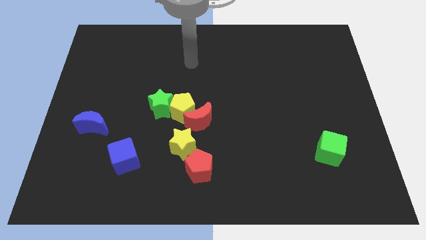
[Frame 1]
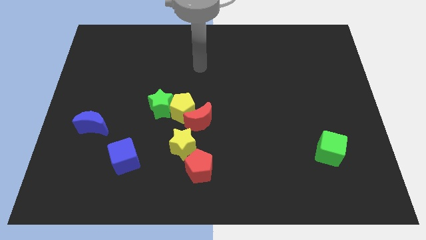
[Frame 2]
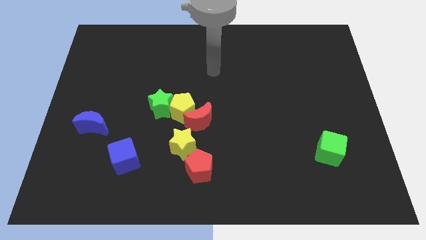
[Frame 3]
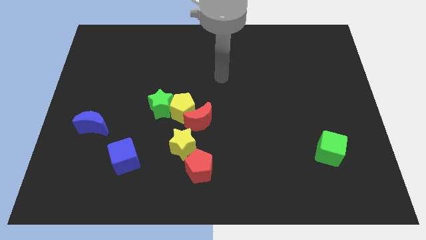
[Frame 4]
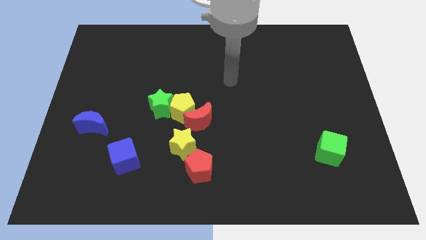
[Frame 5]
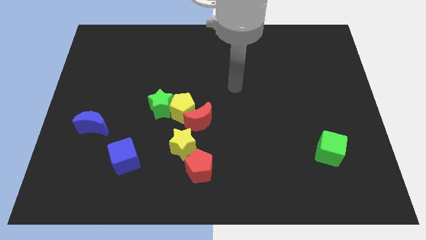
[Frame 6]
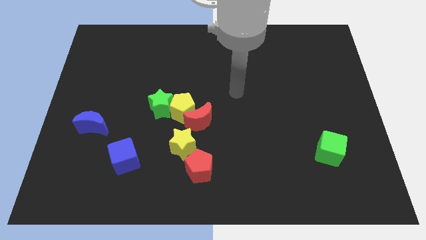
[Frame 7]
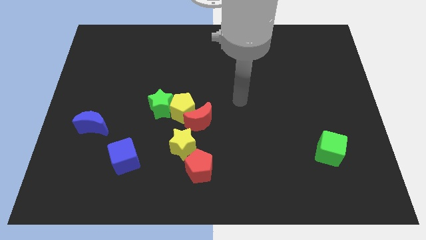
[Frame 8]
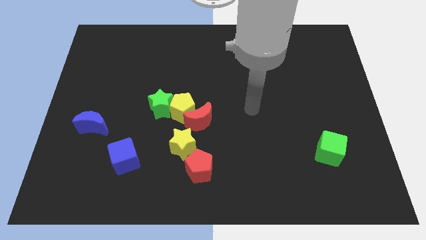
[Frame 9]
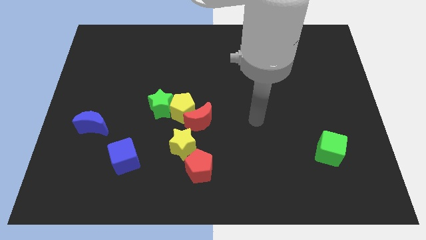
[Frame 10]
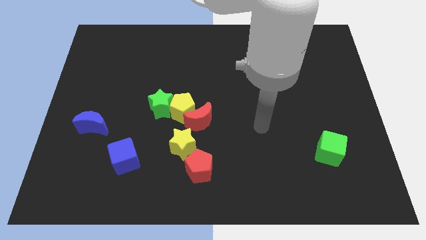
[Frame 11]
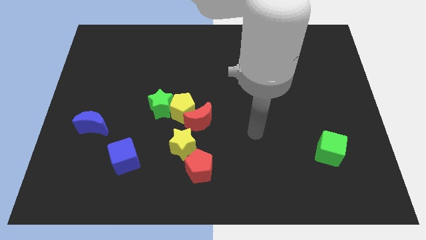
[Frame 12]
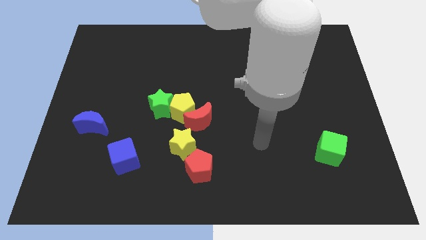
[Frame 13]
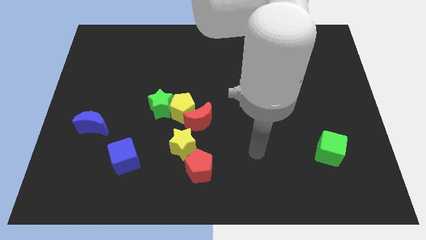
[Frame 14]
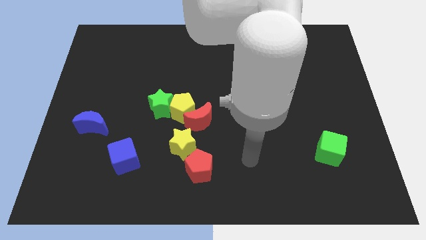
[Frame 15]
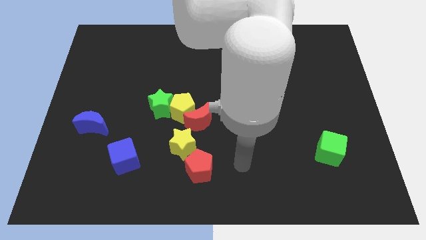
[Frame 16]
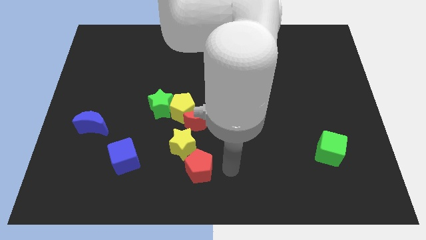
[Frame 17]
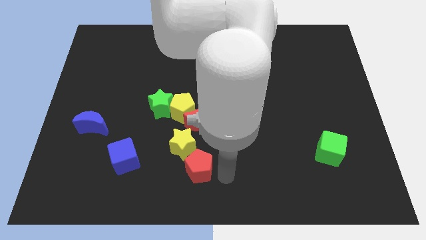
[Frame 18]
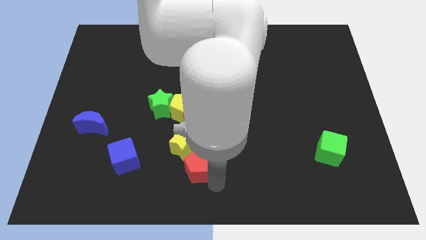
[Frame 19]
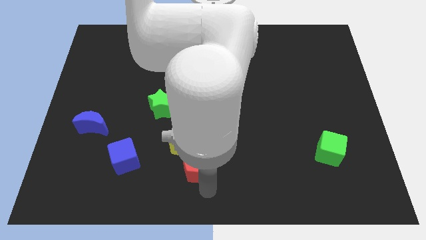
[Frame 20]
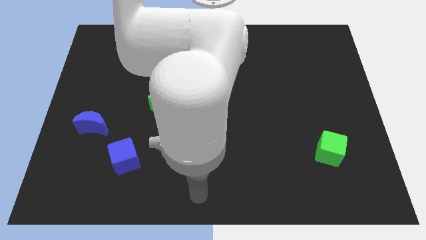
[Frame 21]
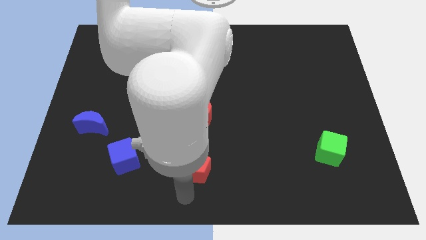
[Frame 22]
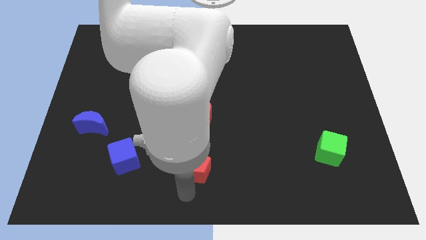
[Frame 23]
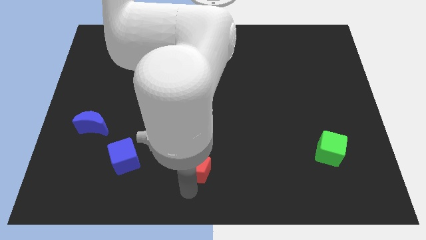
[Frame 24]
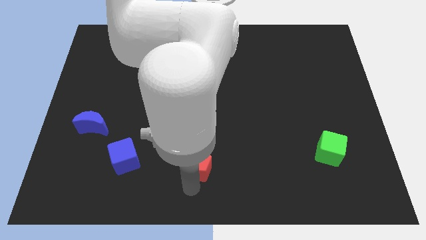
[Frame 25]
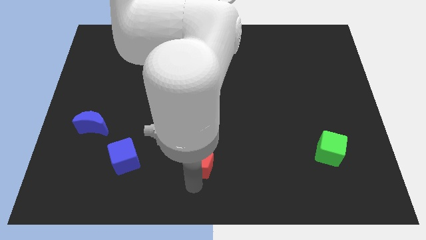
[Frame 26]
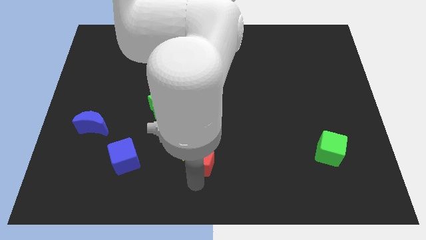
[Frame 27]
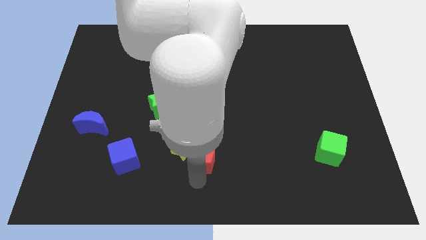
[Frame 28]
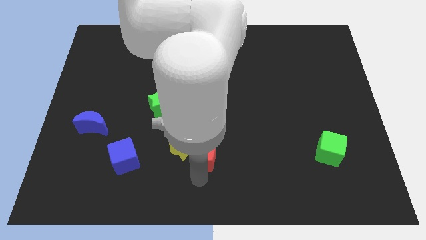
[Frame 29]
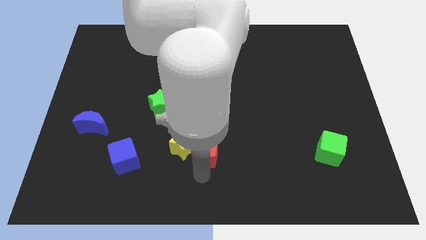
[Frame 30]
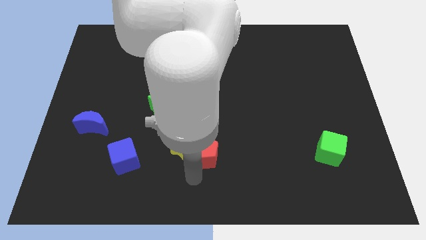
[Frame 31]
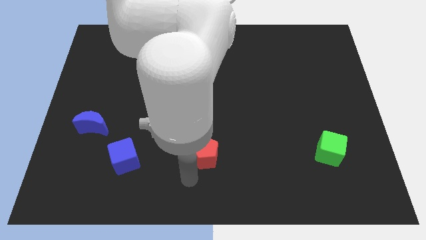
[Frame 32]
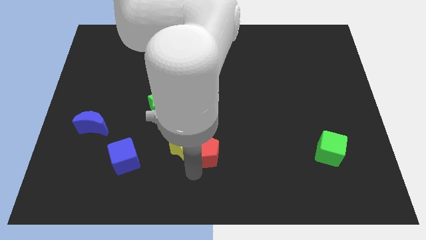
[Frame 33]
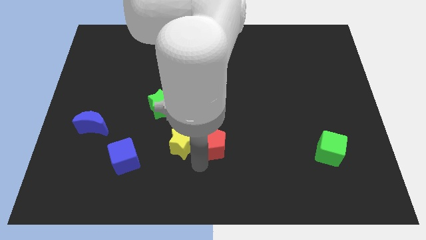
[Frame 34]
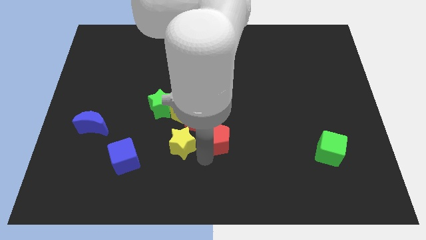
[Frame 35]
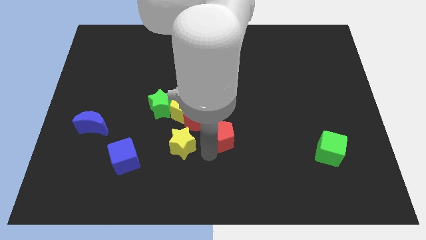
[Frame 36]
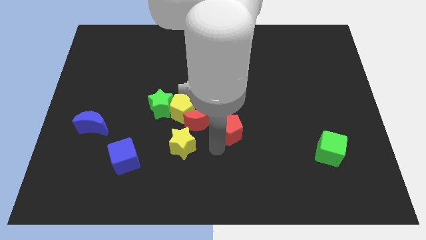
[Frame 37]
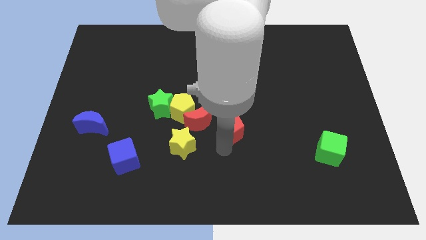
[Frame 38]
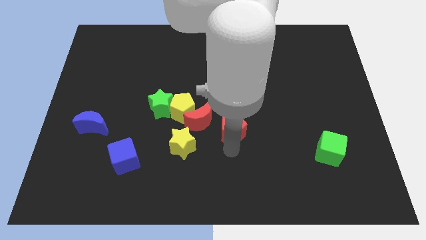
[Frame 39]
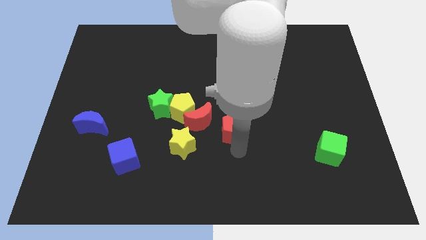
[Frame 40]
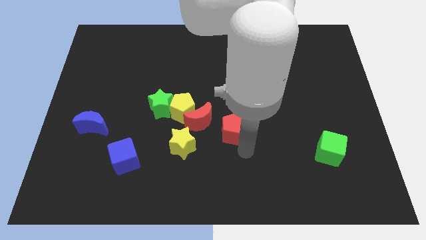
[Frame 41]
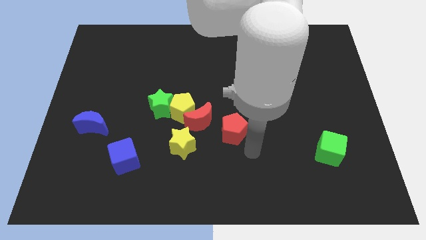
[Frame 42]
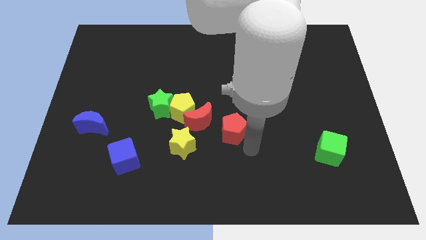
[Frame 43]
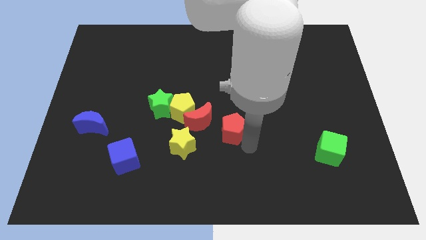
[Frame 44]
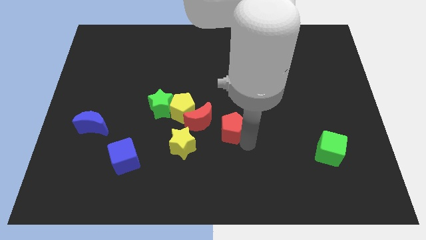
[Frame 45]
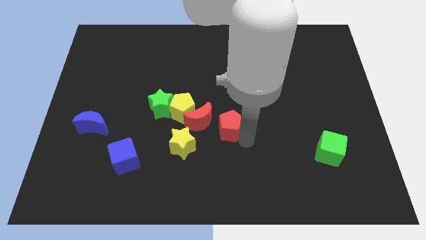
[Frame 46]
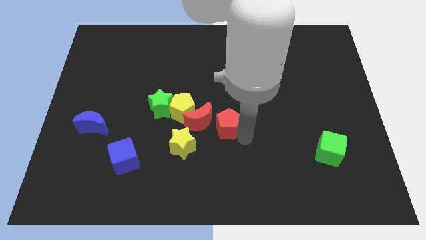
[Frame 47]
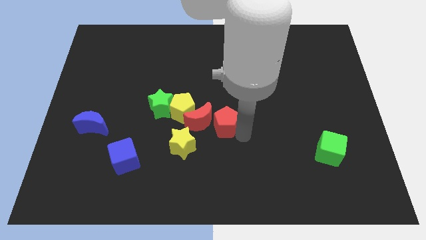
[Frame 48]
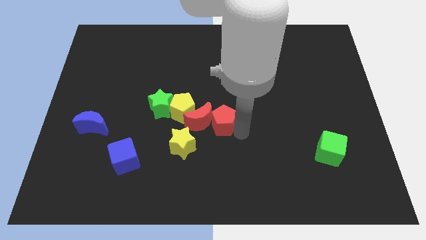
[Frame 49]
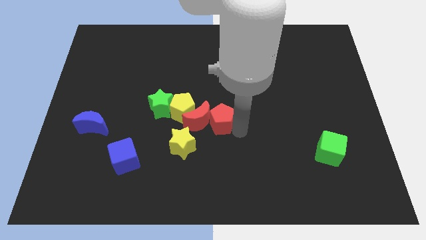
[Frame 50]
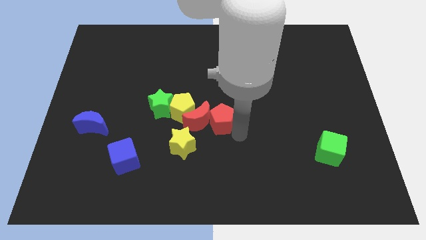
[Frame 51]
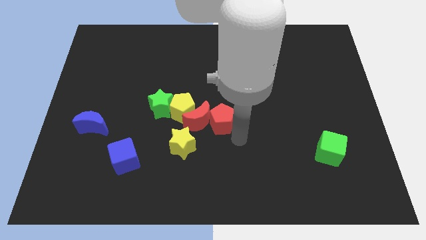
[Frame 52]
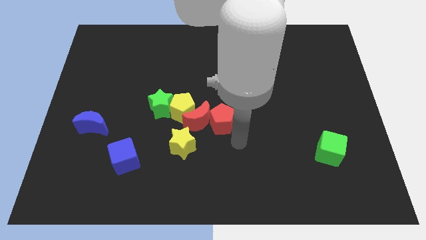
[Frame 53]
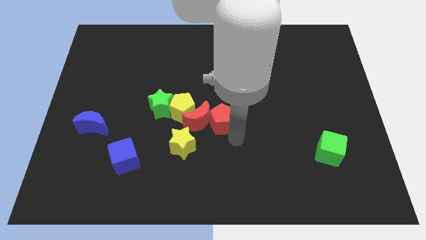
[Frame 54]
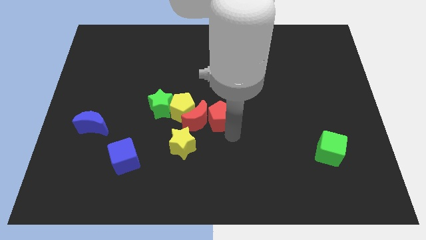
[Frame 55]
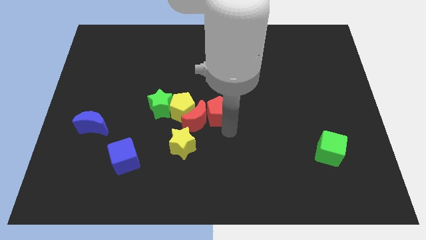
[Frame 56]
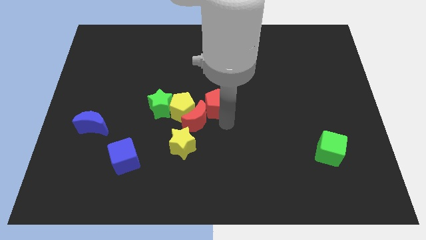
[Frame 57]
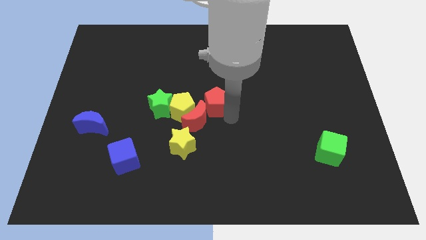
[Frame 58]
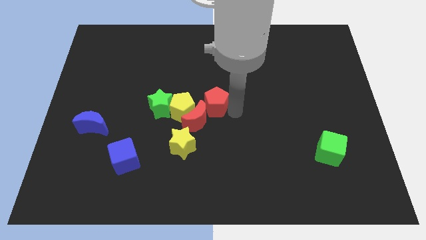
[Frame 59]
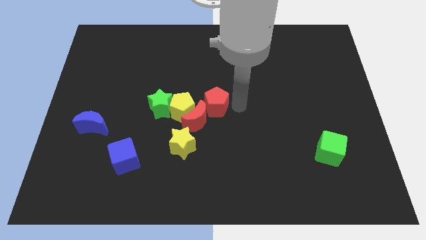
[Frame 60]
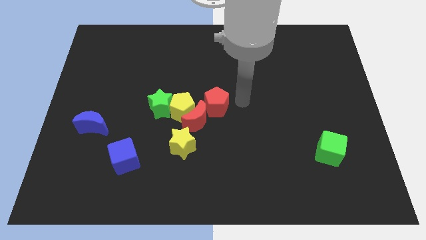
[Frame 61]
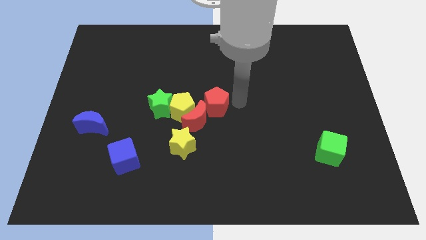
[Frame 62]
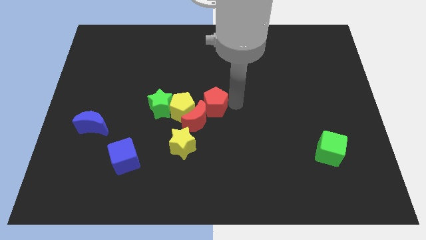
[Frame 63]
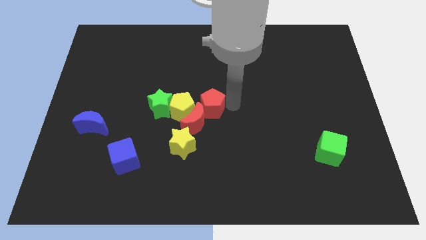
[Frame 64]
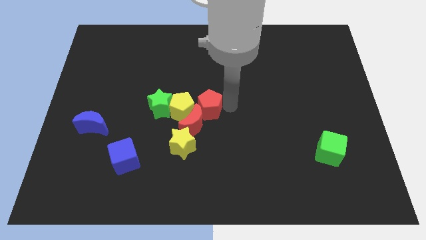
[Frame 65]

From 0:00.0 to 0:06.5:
slide the red pentagon to the yellow pentagon

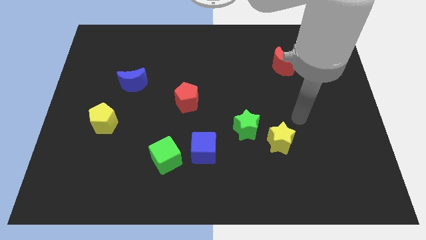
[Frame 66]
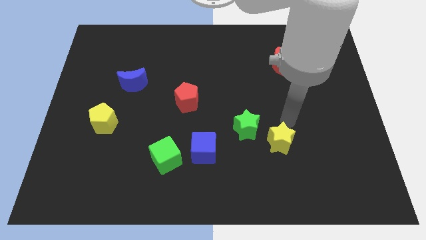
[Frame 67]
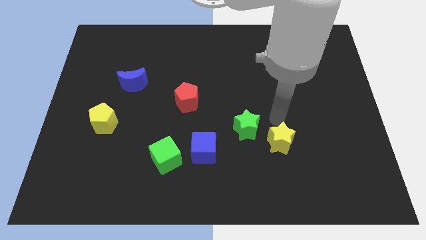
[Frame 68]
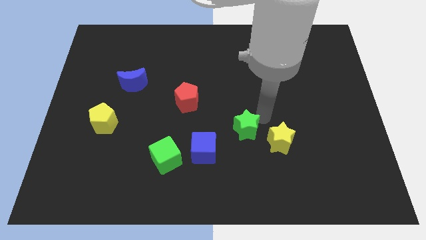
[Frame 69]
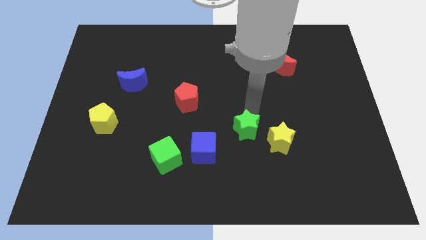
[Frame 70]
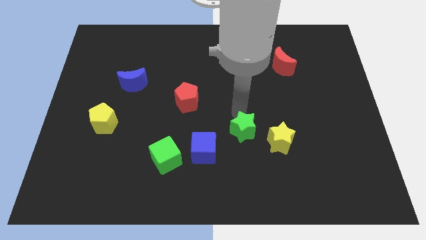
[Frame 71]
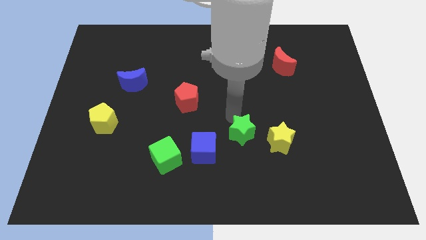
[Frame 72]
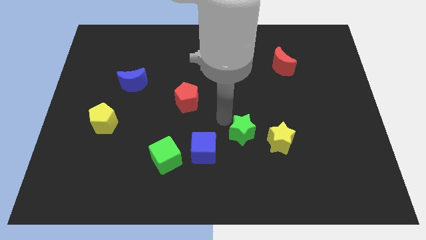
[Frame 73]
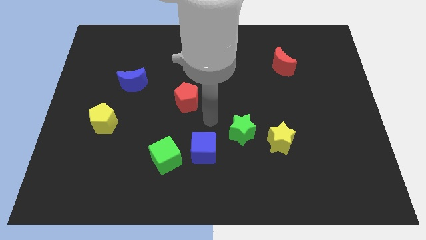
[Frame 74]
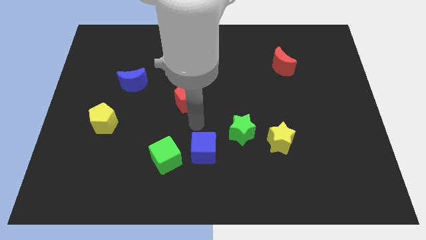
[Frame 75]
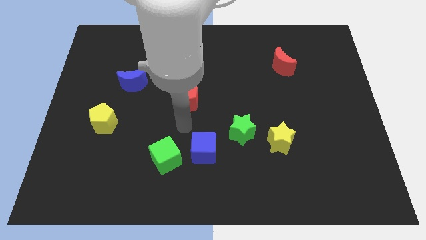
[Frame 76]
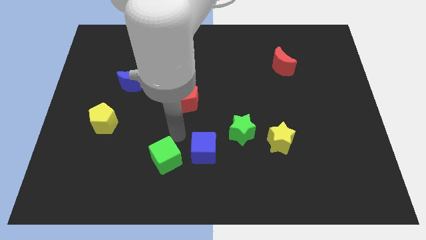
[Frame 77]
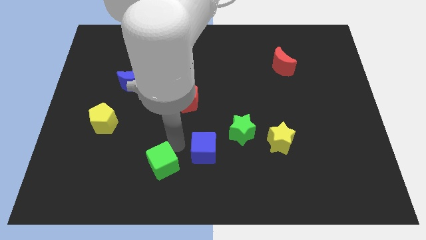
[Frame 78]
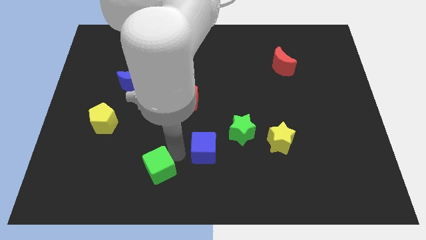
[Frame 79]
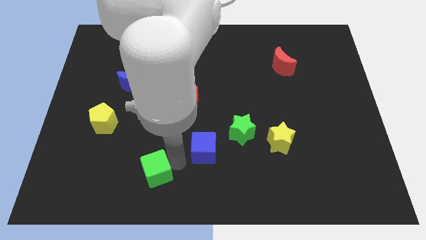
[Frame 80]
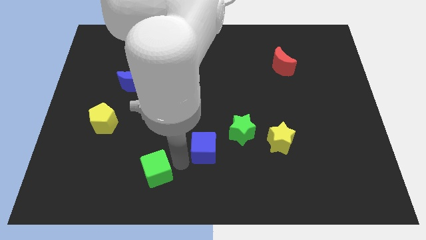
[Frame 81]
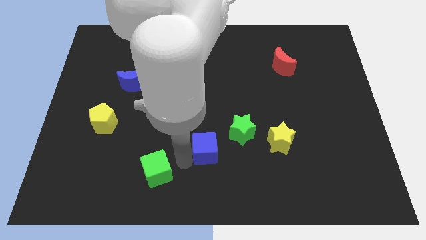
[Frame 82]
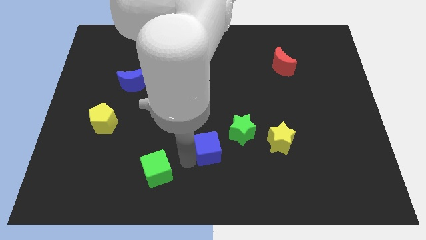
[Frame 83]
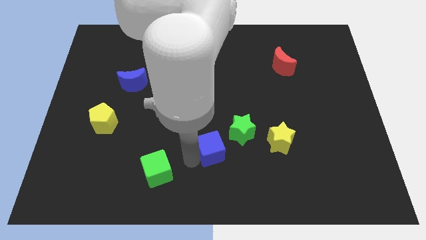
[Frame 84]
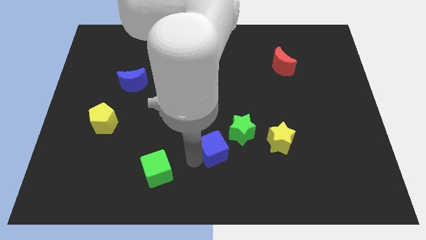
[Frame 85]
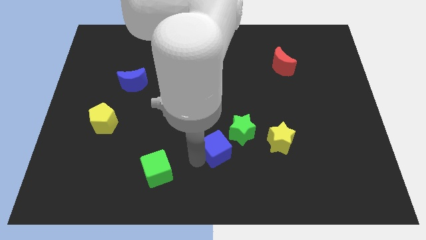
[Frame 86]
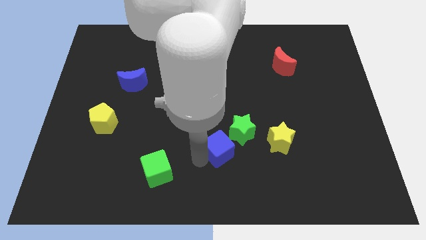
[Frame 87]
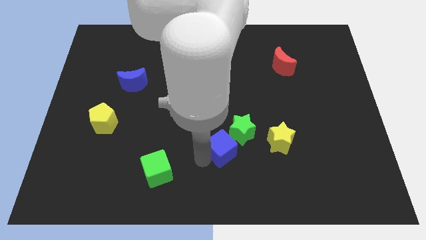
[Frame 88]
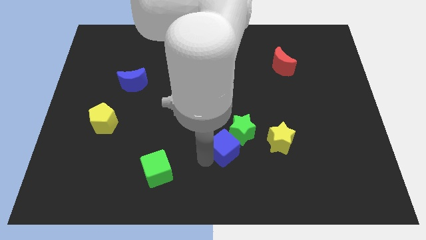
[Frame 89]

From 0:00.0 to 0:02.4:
slide the blue cube towards the green star
